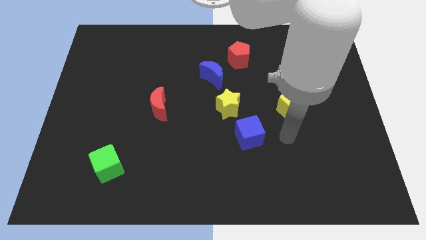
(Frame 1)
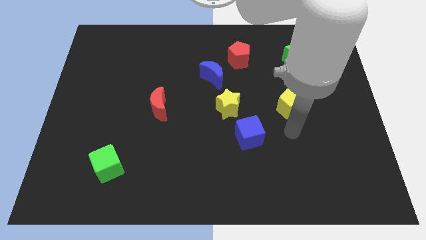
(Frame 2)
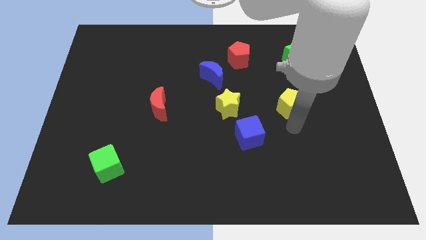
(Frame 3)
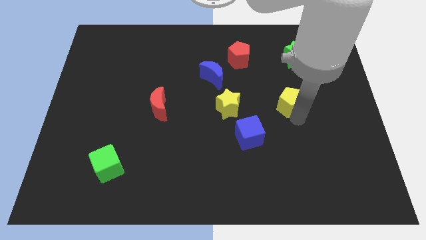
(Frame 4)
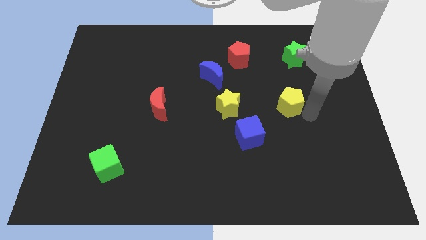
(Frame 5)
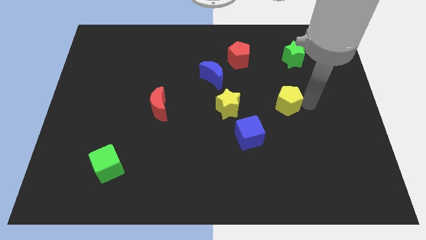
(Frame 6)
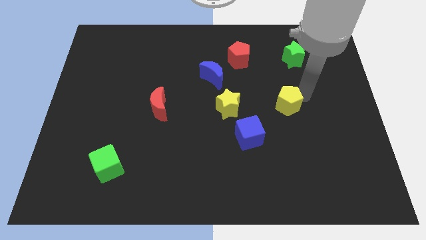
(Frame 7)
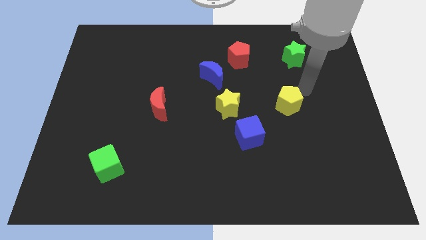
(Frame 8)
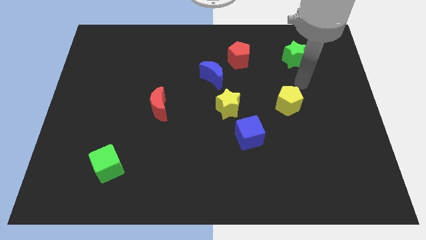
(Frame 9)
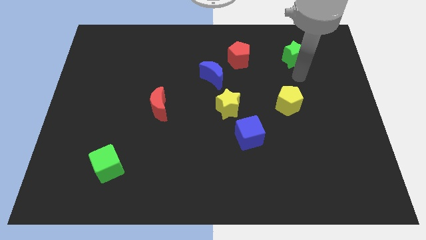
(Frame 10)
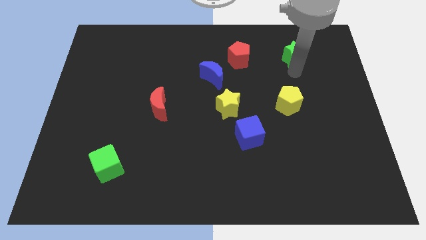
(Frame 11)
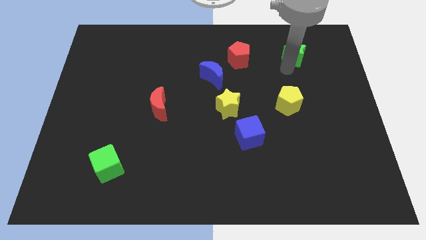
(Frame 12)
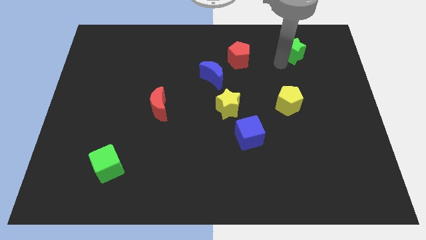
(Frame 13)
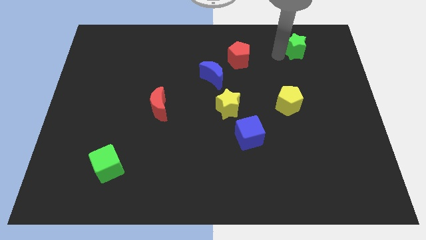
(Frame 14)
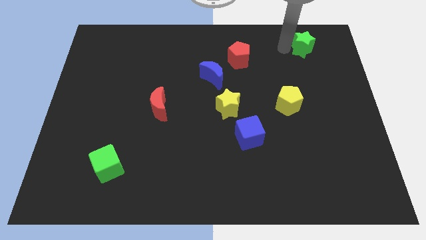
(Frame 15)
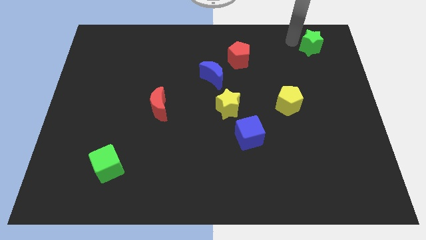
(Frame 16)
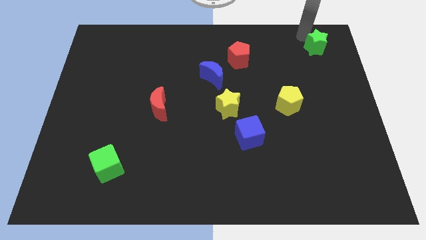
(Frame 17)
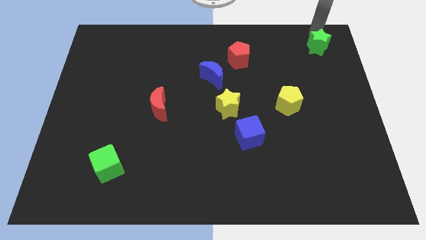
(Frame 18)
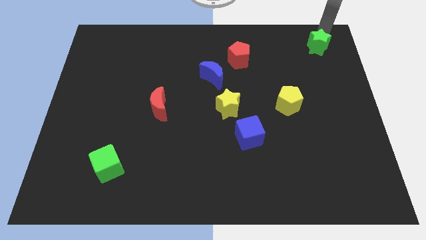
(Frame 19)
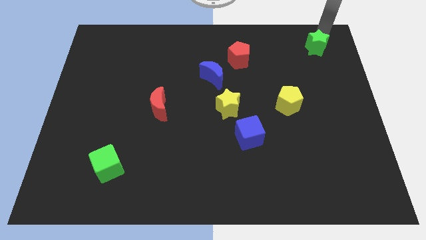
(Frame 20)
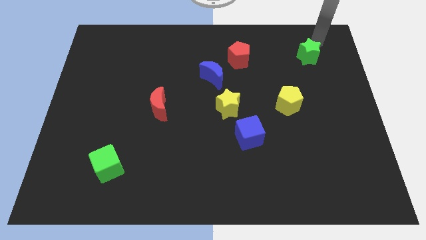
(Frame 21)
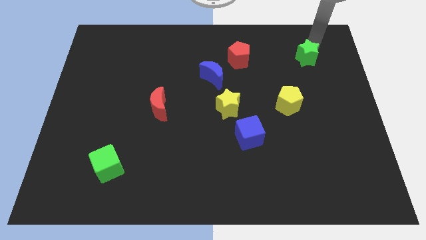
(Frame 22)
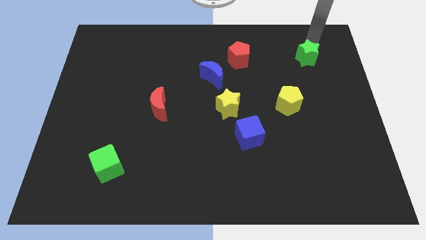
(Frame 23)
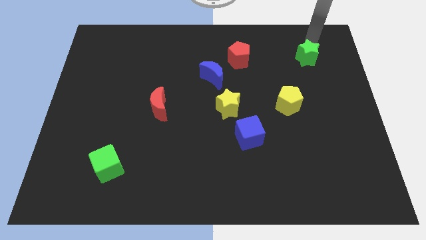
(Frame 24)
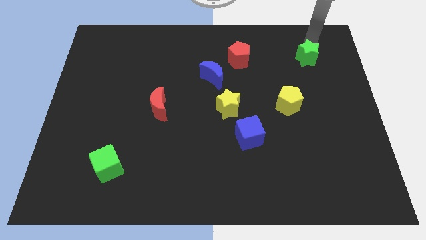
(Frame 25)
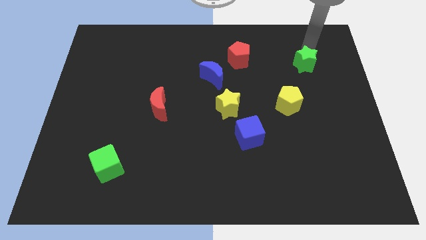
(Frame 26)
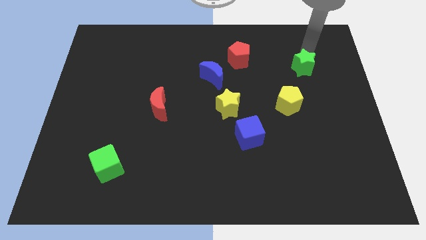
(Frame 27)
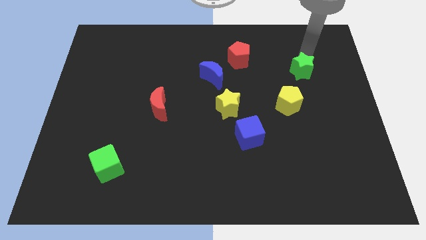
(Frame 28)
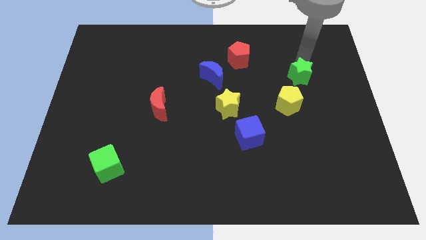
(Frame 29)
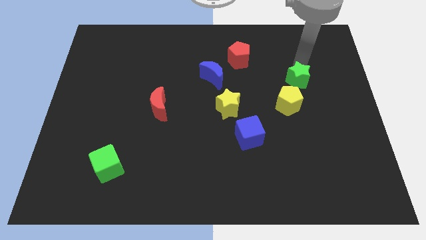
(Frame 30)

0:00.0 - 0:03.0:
slightly move the green star down

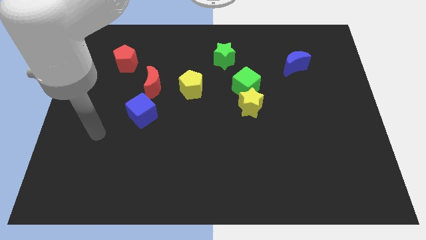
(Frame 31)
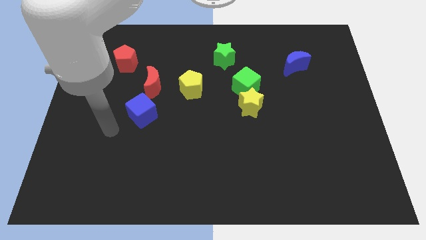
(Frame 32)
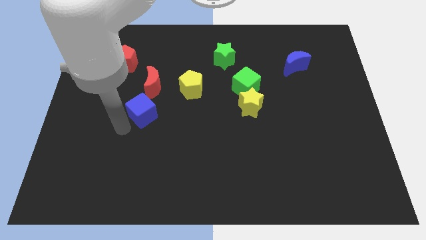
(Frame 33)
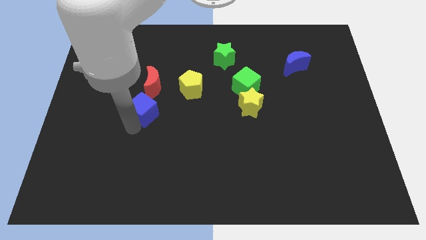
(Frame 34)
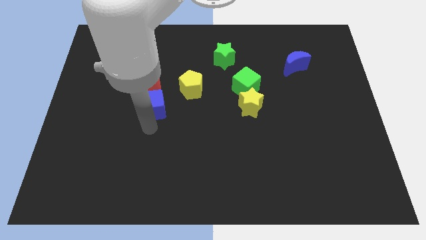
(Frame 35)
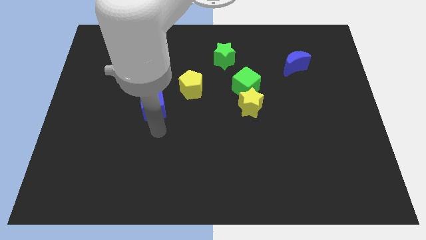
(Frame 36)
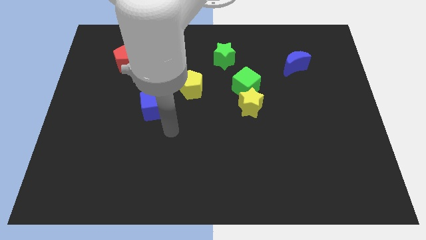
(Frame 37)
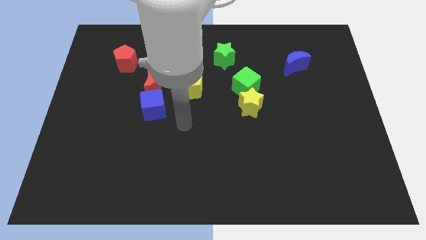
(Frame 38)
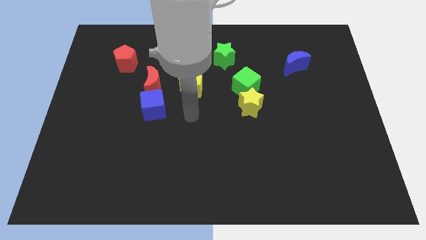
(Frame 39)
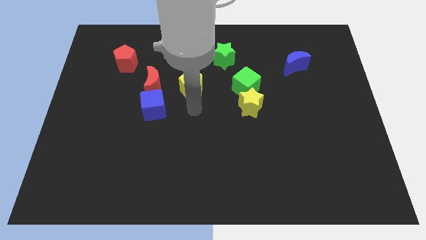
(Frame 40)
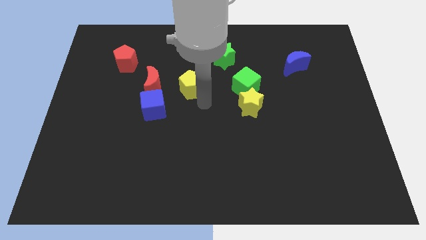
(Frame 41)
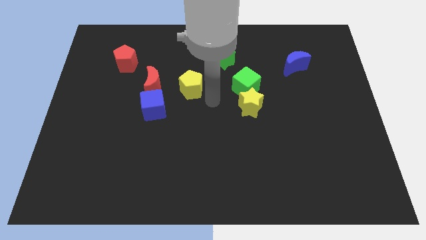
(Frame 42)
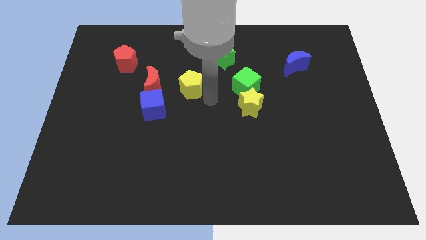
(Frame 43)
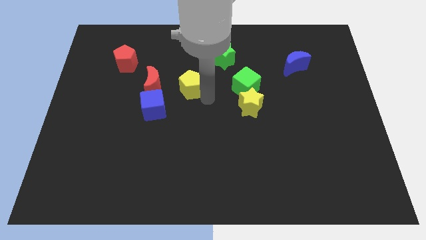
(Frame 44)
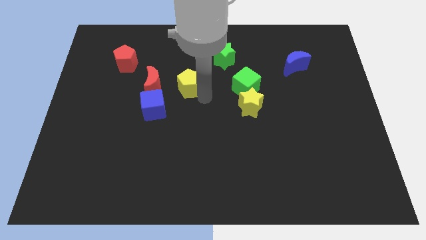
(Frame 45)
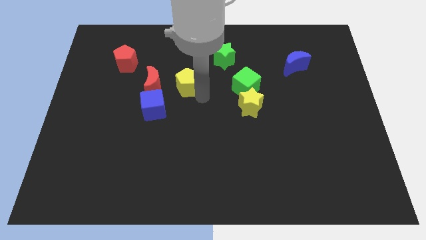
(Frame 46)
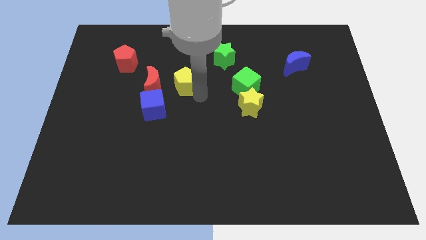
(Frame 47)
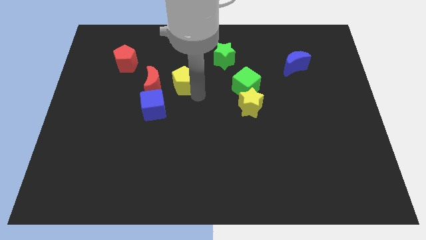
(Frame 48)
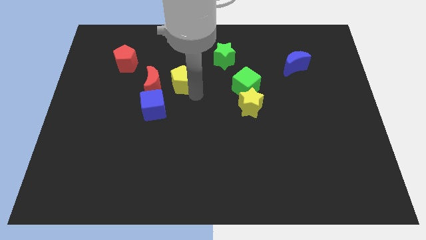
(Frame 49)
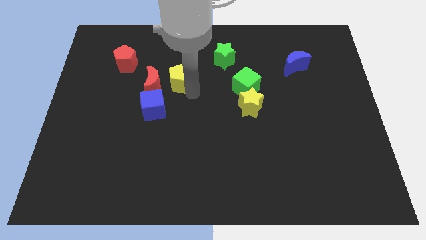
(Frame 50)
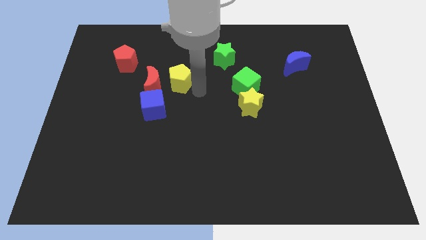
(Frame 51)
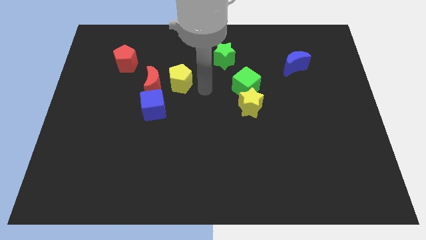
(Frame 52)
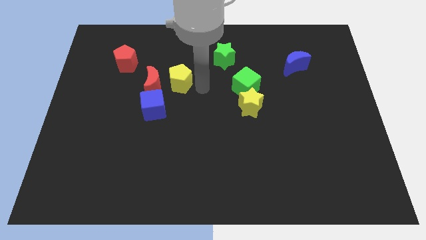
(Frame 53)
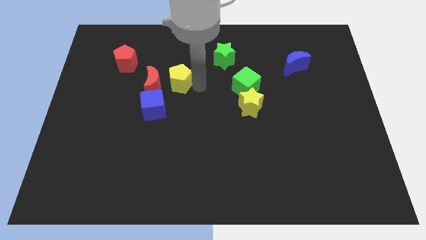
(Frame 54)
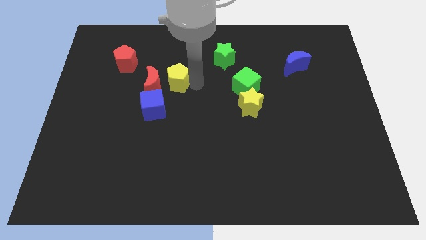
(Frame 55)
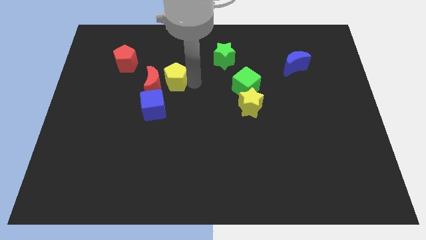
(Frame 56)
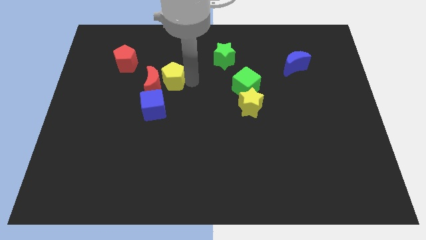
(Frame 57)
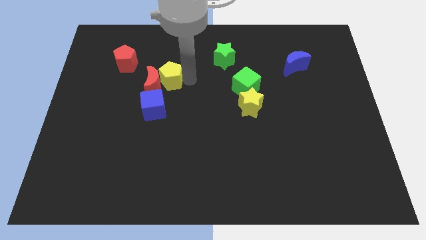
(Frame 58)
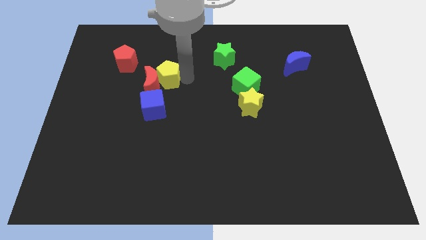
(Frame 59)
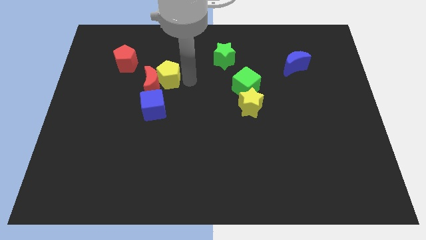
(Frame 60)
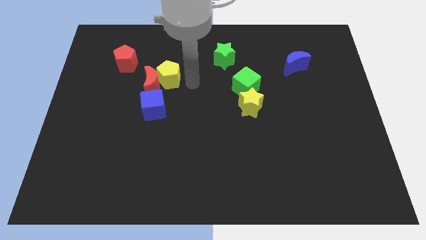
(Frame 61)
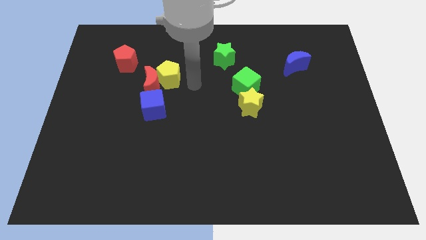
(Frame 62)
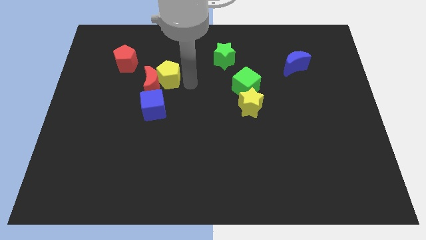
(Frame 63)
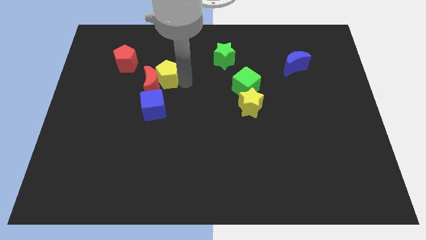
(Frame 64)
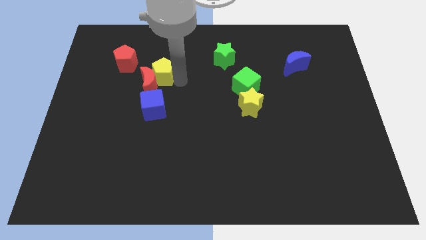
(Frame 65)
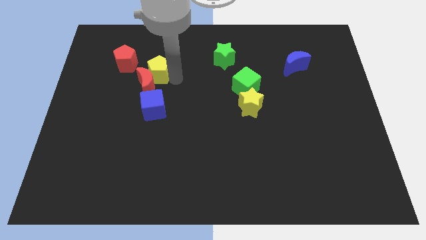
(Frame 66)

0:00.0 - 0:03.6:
slide the yellow pentagon slightly left

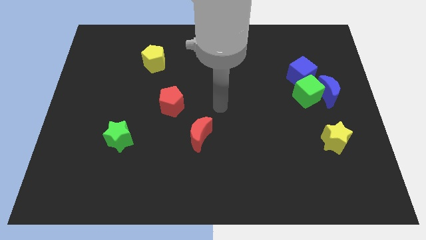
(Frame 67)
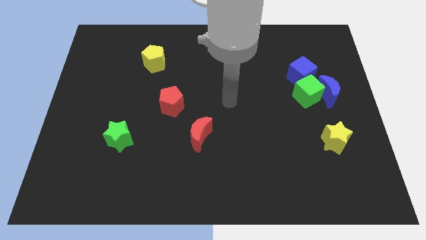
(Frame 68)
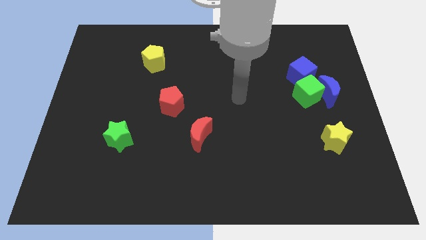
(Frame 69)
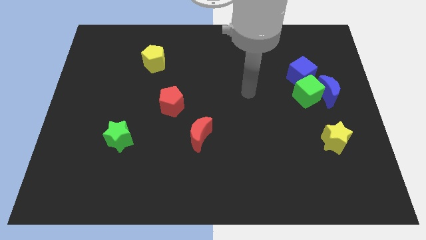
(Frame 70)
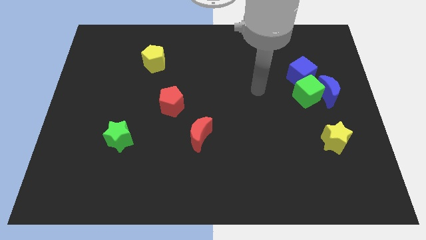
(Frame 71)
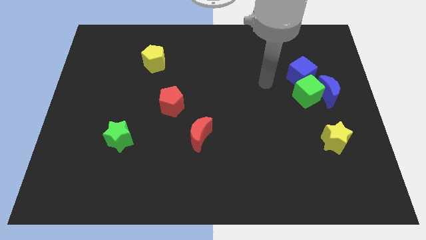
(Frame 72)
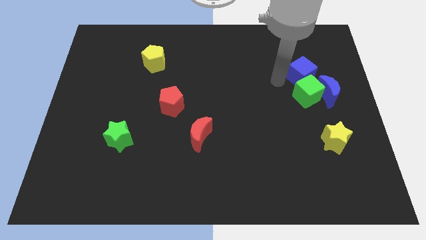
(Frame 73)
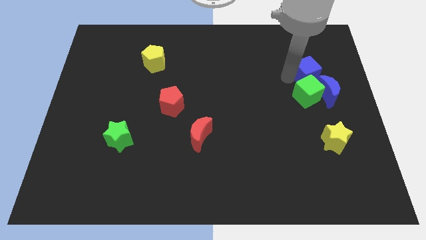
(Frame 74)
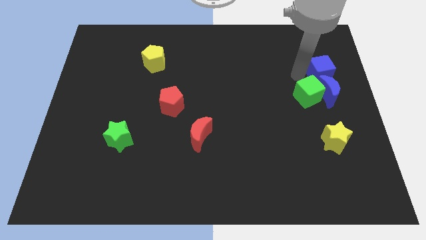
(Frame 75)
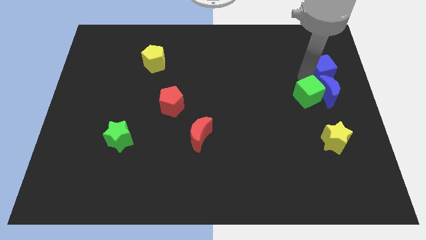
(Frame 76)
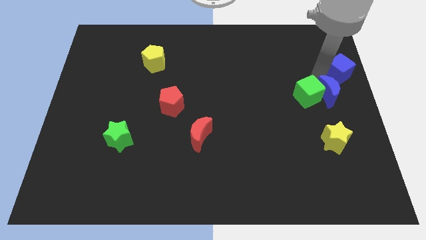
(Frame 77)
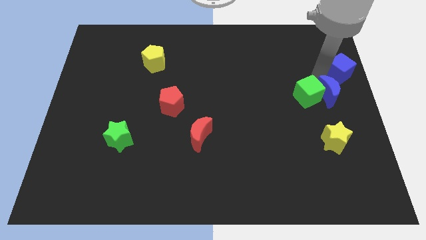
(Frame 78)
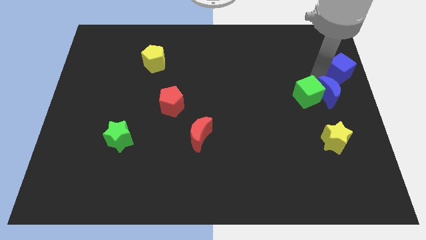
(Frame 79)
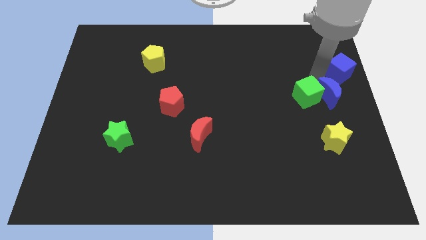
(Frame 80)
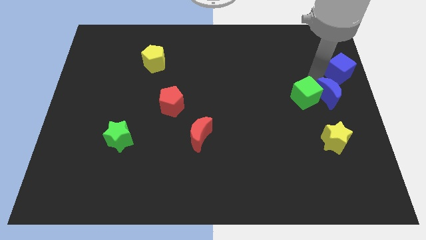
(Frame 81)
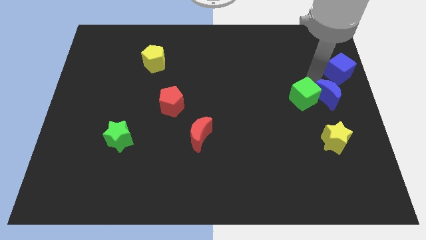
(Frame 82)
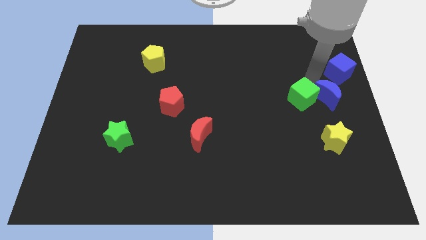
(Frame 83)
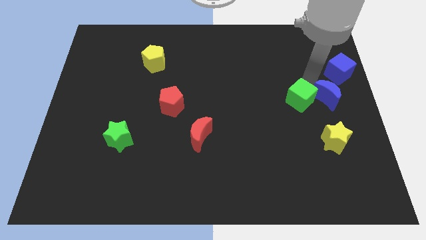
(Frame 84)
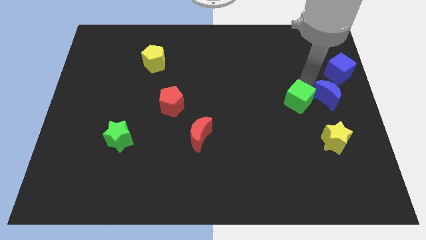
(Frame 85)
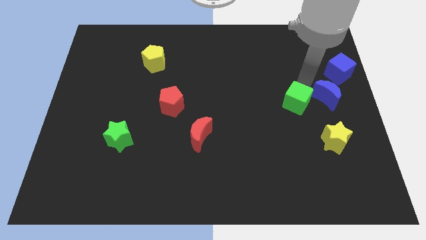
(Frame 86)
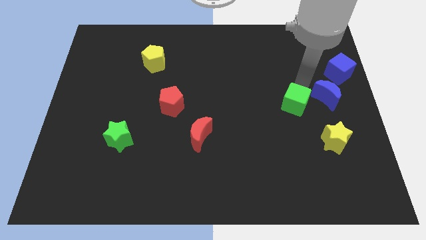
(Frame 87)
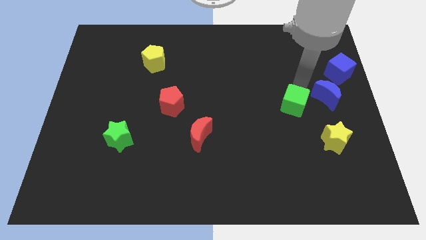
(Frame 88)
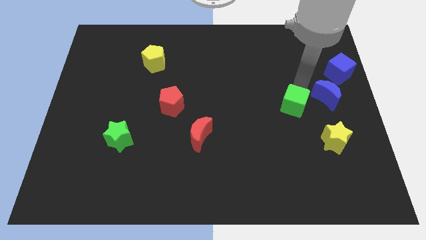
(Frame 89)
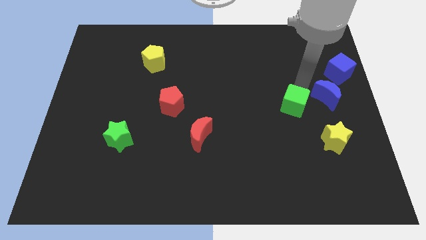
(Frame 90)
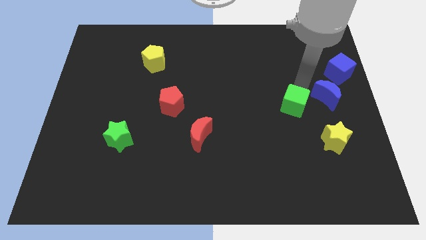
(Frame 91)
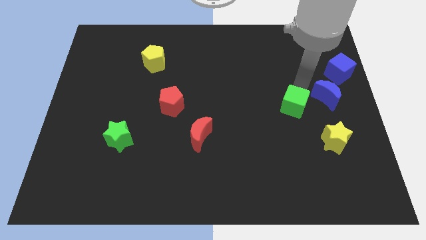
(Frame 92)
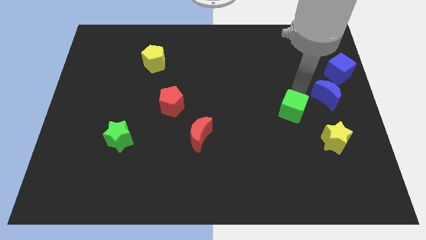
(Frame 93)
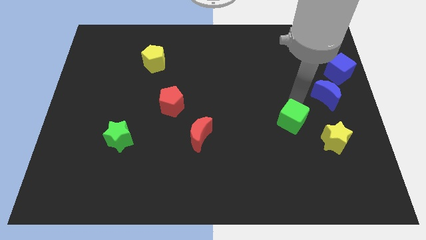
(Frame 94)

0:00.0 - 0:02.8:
move the green cube slightly diagonally downwards and to the left
